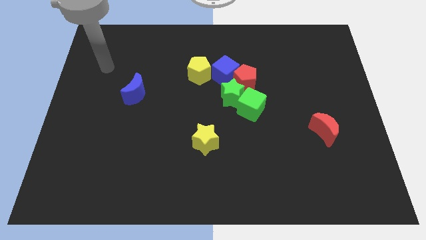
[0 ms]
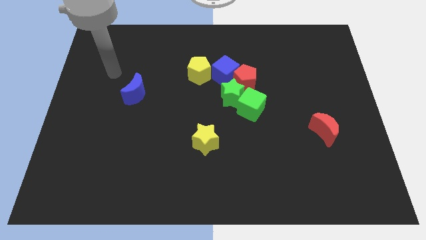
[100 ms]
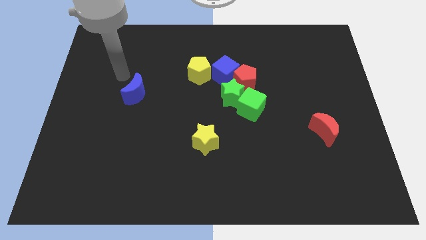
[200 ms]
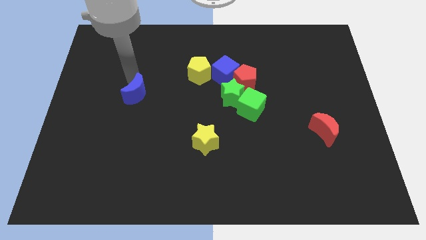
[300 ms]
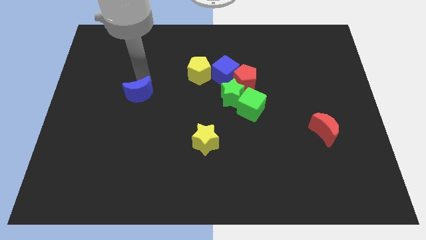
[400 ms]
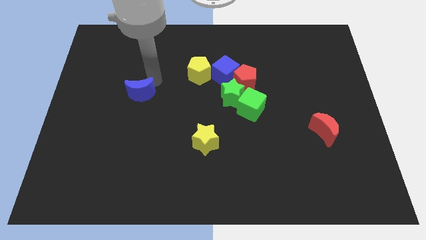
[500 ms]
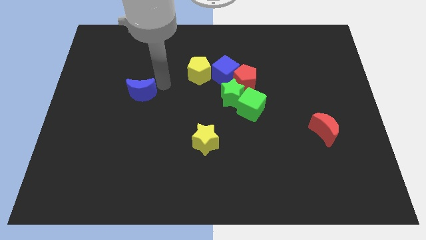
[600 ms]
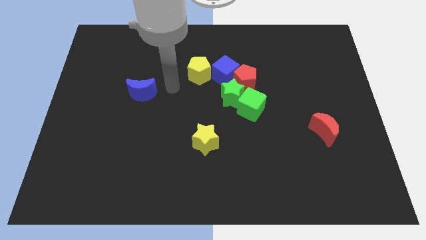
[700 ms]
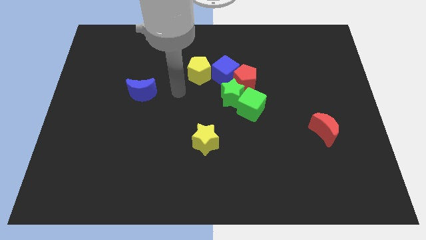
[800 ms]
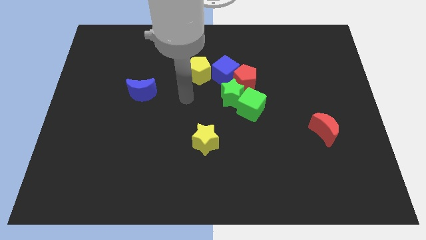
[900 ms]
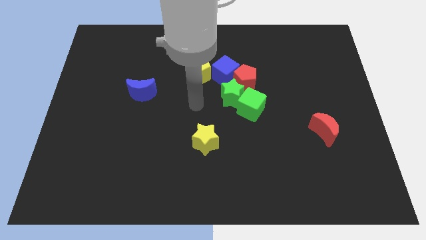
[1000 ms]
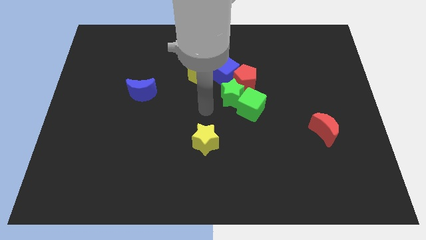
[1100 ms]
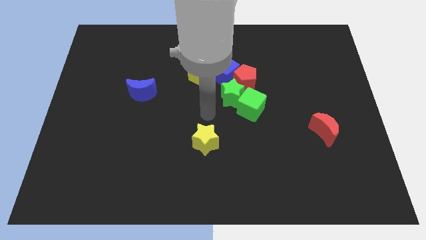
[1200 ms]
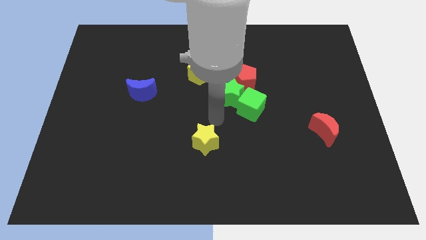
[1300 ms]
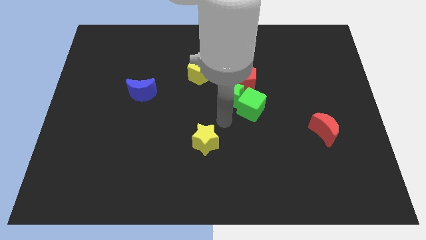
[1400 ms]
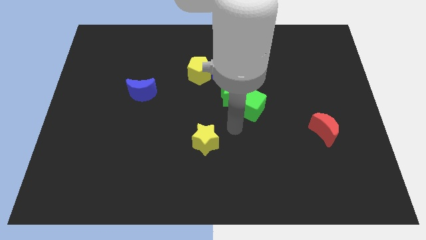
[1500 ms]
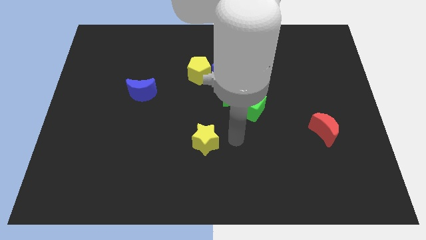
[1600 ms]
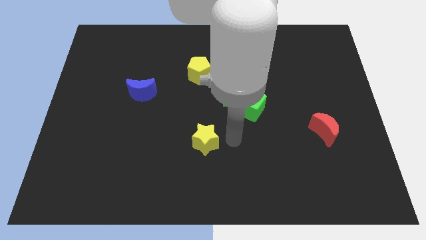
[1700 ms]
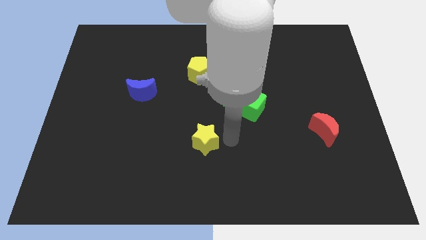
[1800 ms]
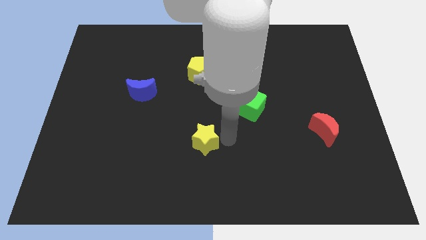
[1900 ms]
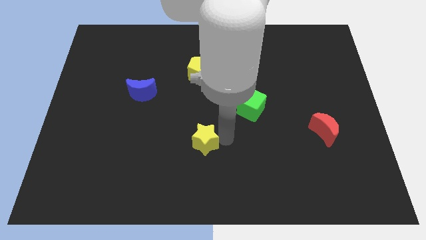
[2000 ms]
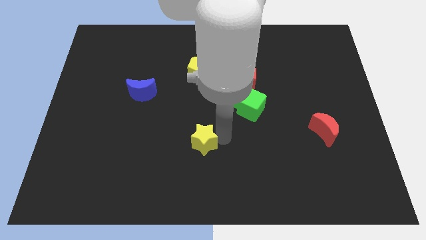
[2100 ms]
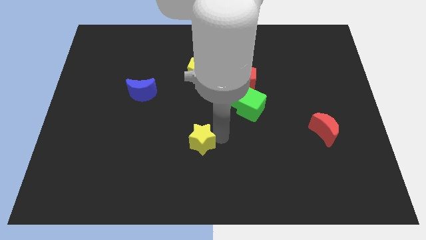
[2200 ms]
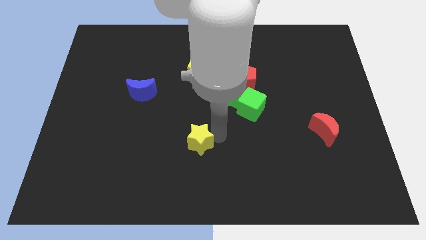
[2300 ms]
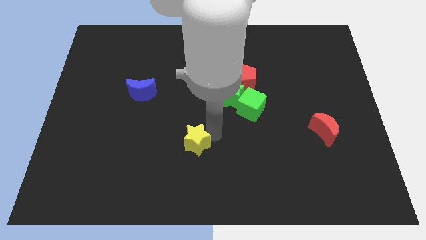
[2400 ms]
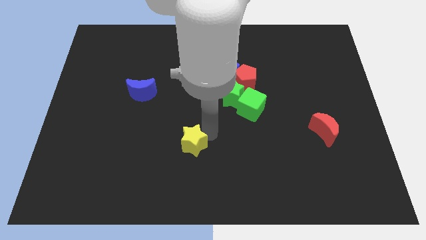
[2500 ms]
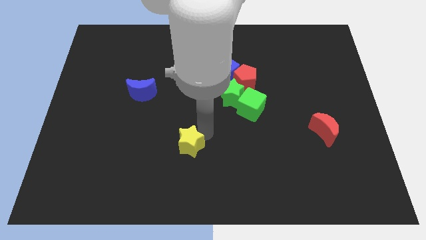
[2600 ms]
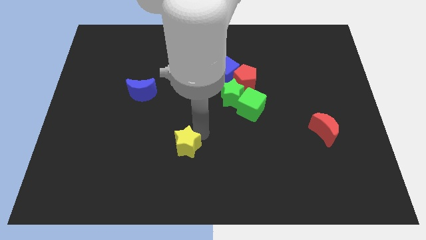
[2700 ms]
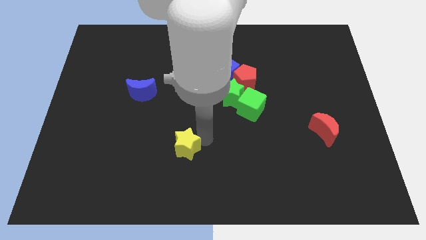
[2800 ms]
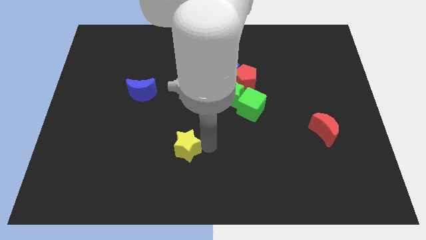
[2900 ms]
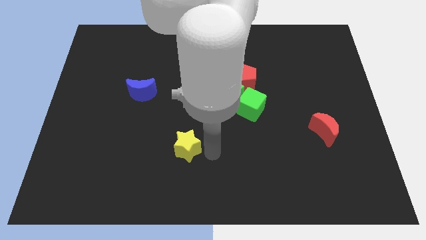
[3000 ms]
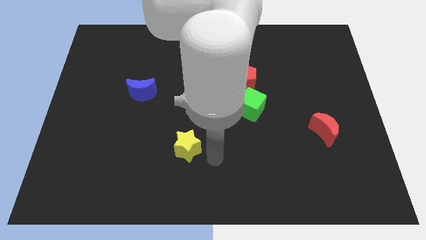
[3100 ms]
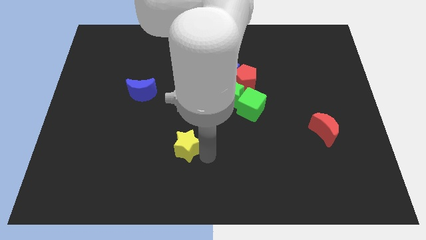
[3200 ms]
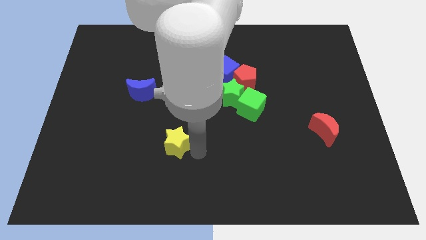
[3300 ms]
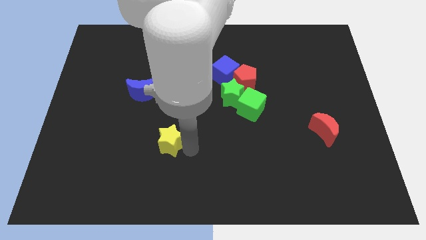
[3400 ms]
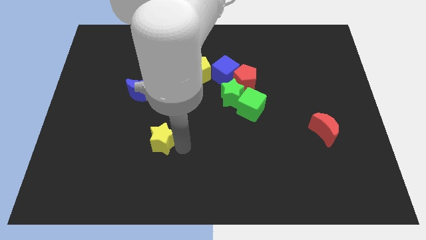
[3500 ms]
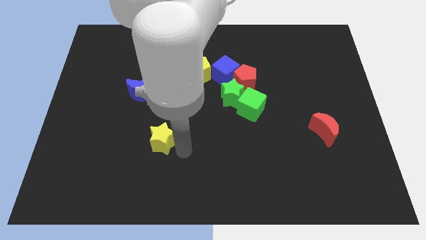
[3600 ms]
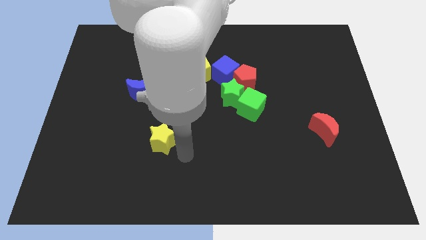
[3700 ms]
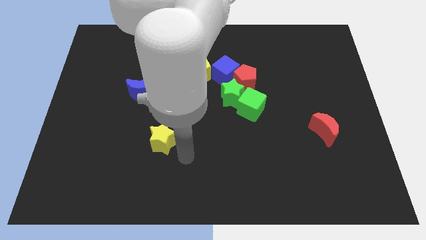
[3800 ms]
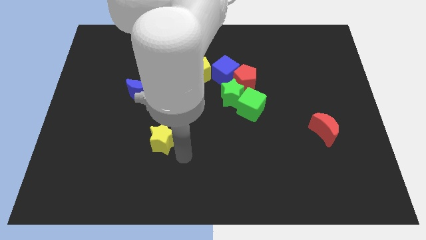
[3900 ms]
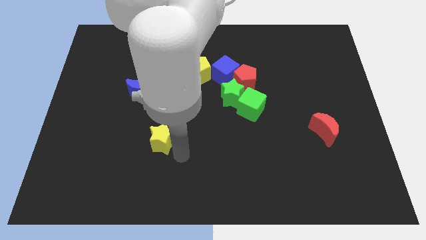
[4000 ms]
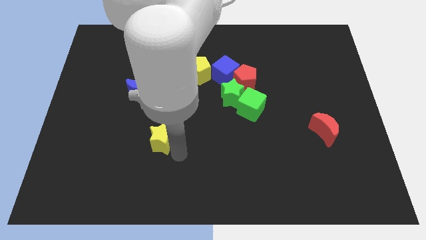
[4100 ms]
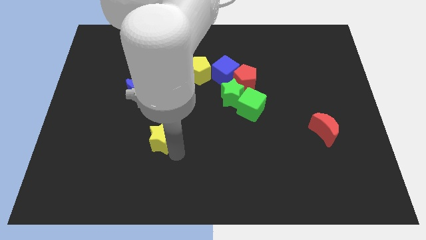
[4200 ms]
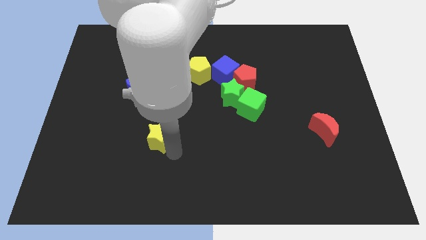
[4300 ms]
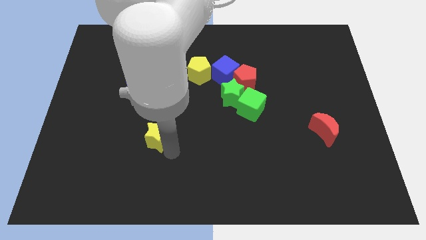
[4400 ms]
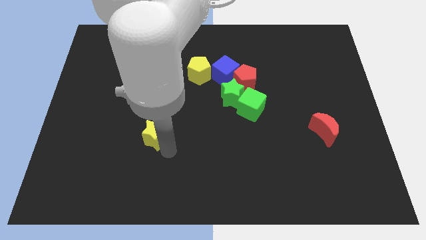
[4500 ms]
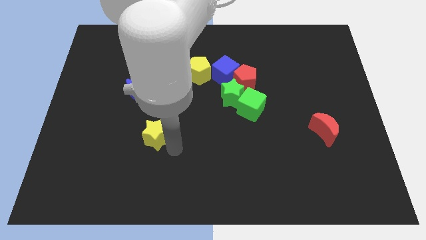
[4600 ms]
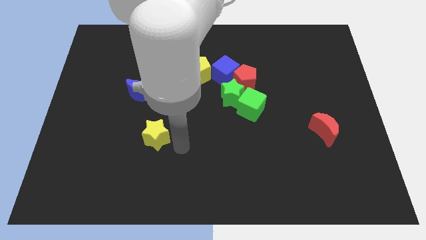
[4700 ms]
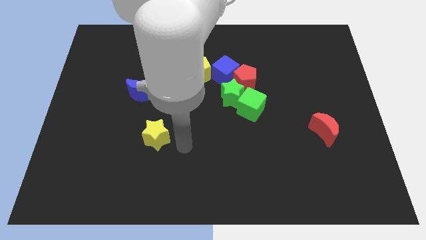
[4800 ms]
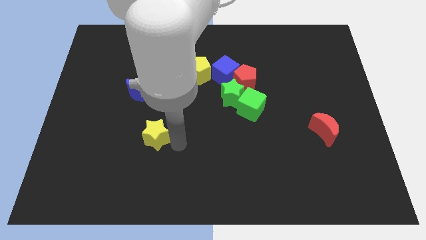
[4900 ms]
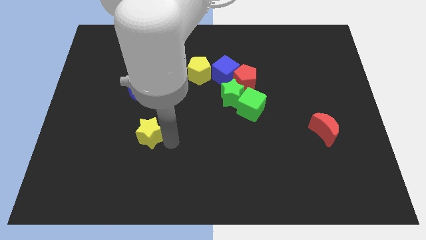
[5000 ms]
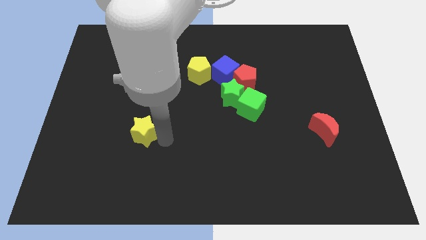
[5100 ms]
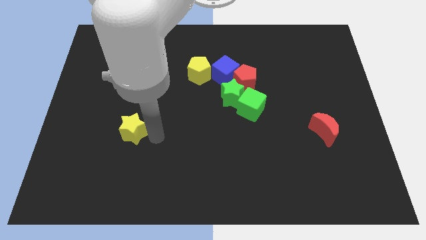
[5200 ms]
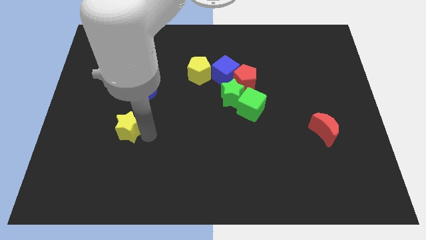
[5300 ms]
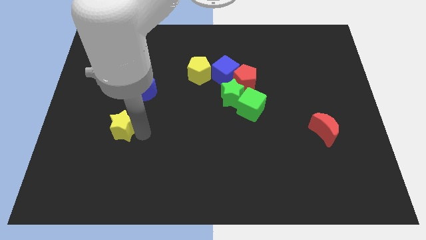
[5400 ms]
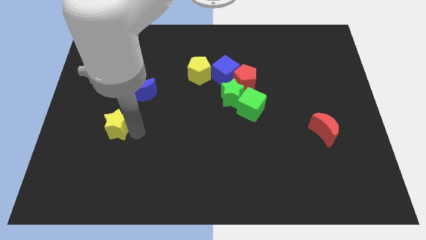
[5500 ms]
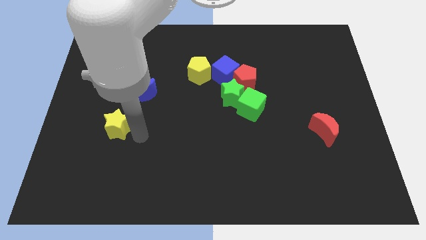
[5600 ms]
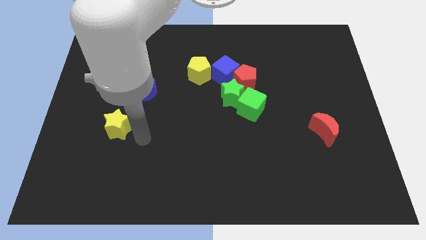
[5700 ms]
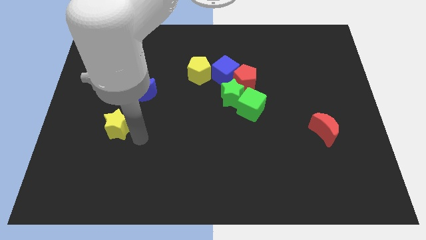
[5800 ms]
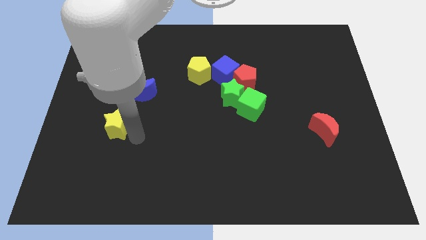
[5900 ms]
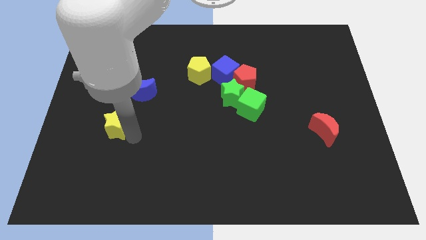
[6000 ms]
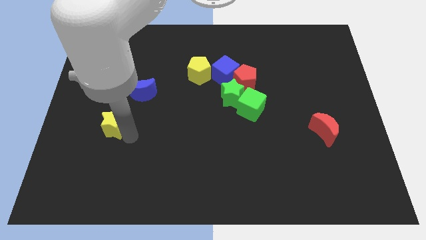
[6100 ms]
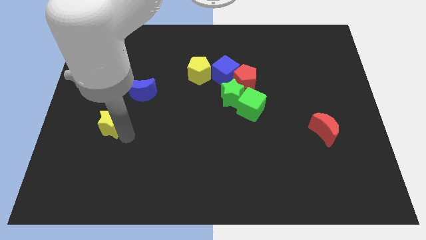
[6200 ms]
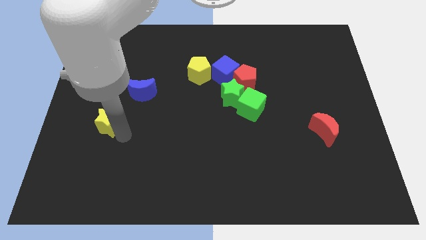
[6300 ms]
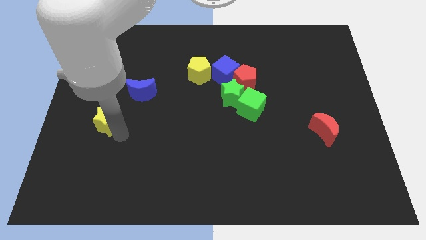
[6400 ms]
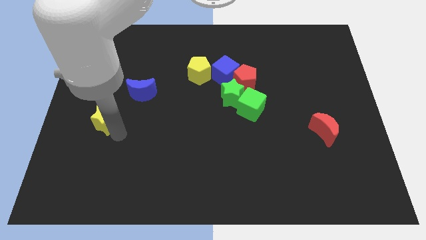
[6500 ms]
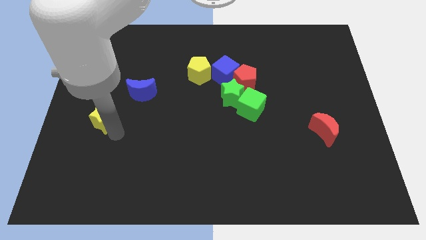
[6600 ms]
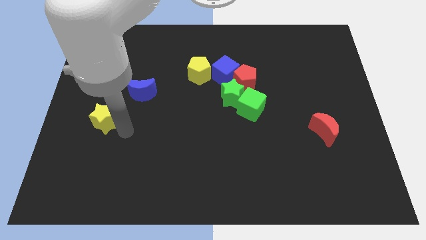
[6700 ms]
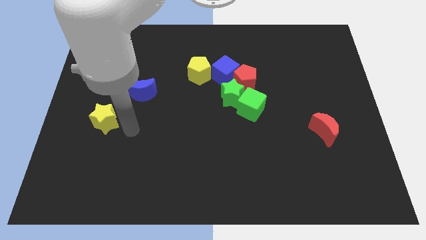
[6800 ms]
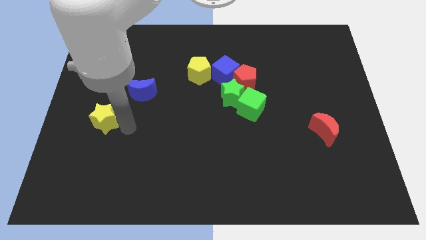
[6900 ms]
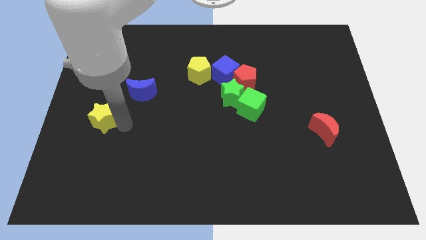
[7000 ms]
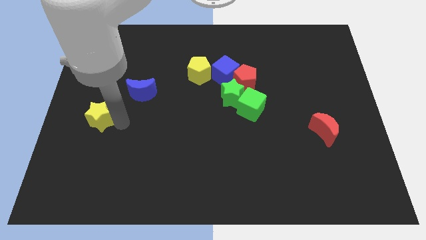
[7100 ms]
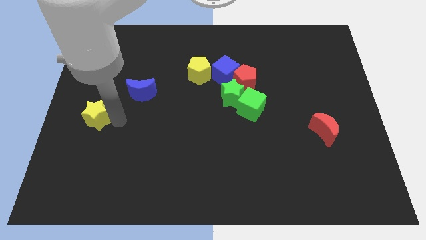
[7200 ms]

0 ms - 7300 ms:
move the yellow star to the left side of the board
